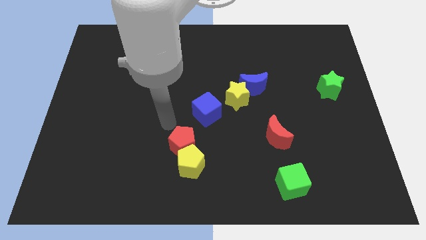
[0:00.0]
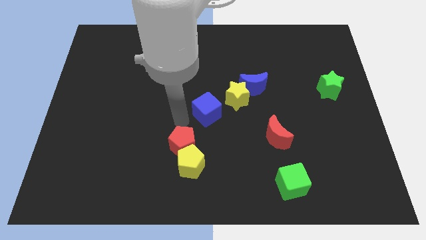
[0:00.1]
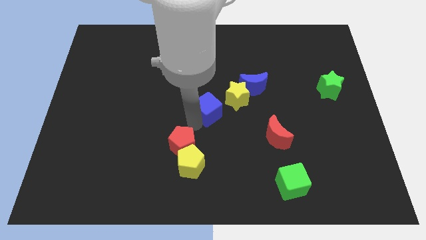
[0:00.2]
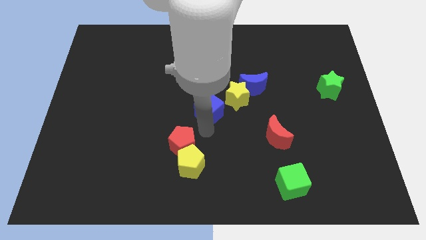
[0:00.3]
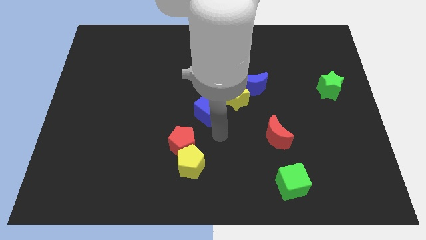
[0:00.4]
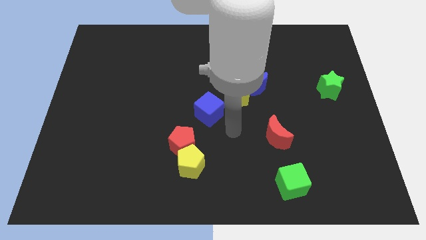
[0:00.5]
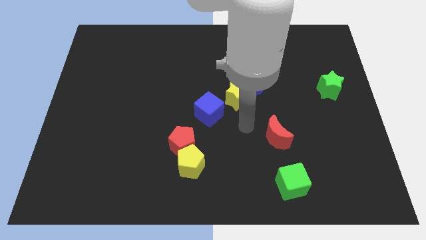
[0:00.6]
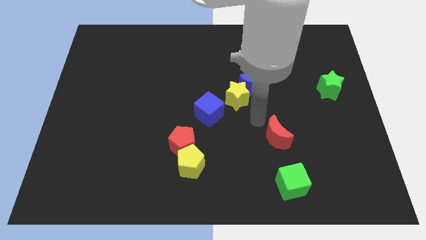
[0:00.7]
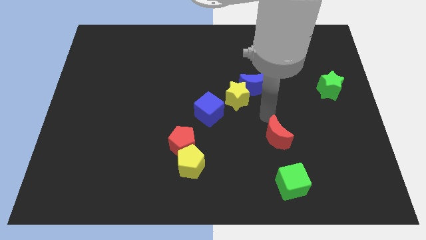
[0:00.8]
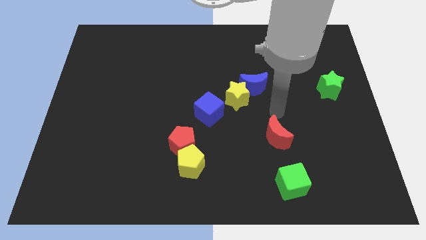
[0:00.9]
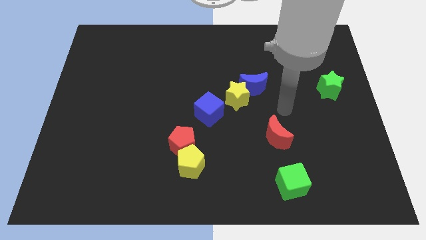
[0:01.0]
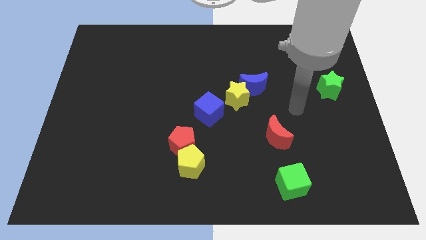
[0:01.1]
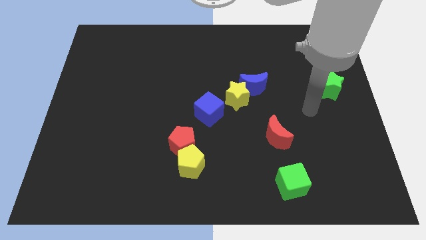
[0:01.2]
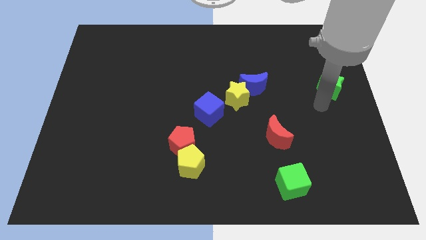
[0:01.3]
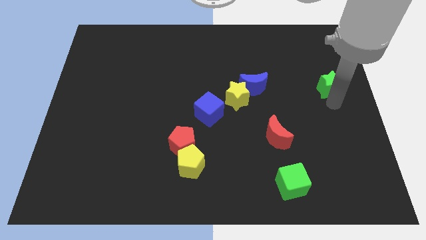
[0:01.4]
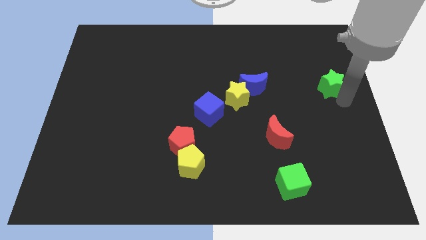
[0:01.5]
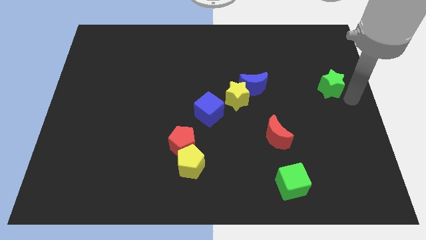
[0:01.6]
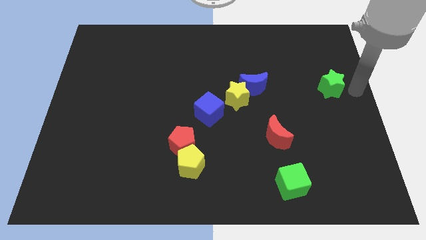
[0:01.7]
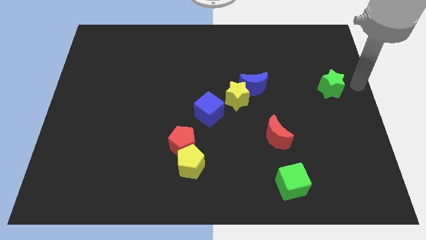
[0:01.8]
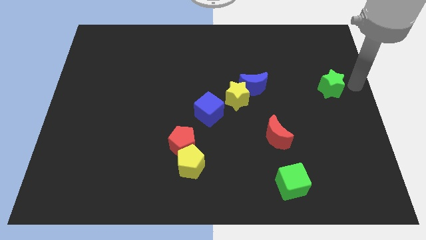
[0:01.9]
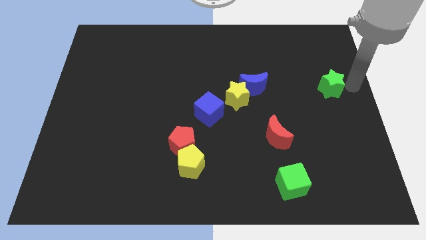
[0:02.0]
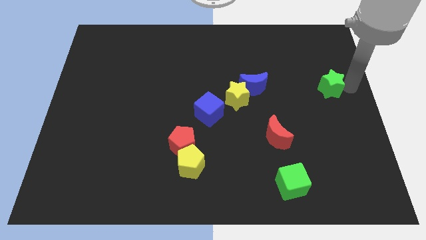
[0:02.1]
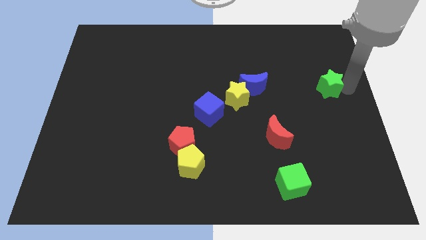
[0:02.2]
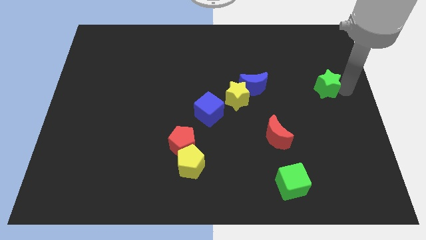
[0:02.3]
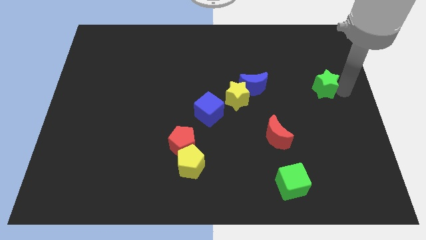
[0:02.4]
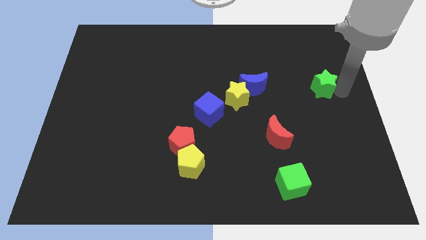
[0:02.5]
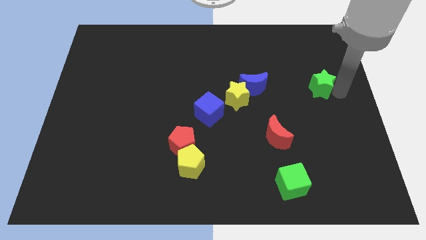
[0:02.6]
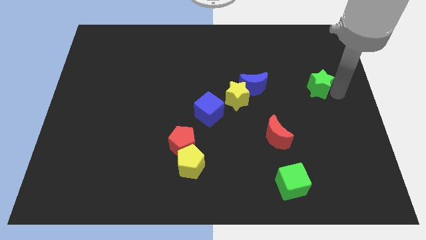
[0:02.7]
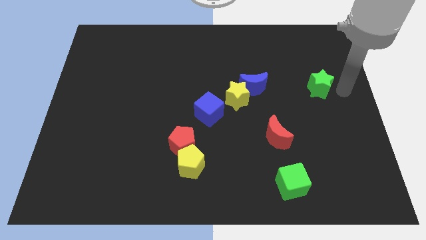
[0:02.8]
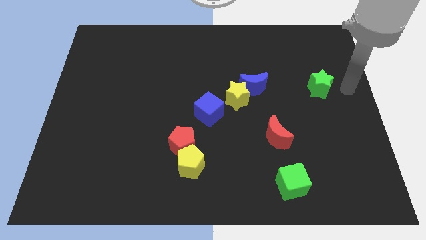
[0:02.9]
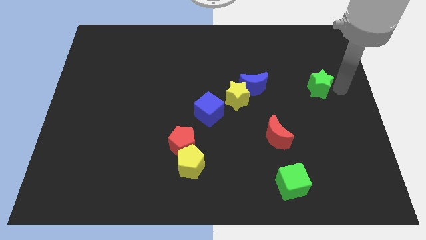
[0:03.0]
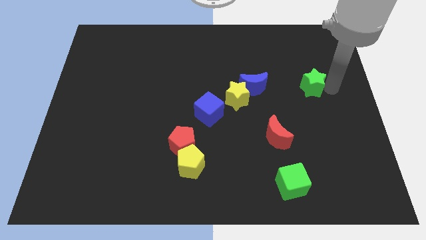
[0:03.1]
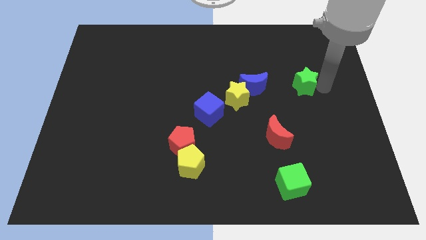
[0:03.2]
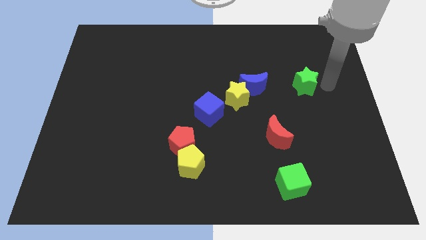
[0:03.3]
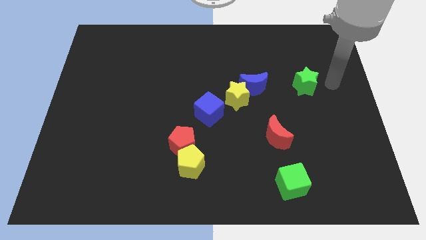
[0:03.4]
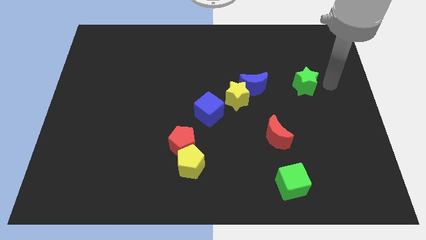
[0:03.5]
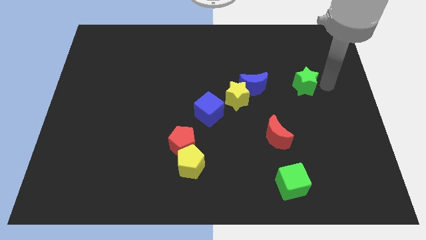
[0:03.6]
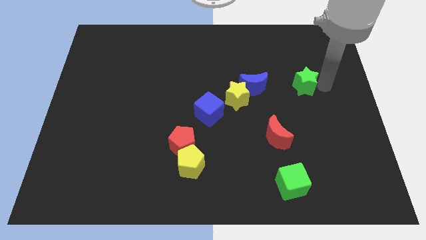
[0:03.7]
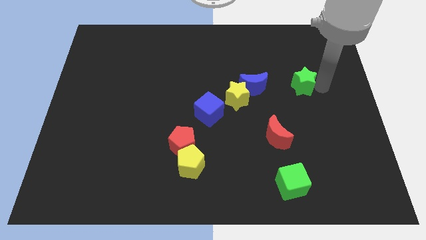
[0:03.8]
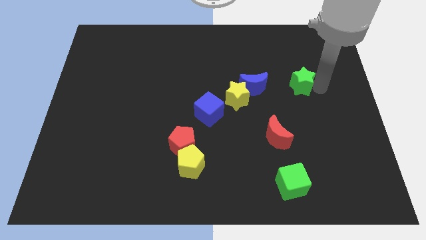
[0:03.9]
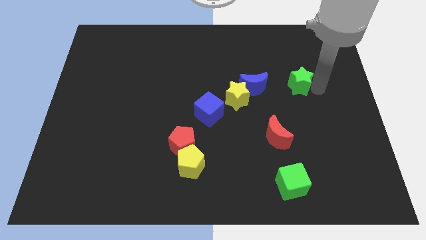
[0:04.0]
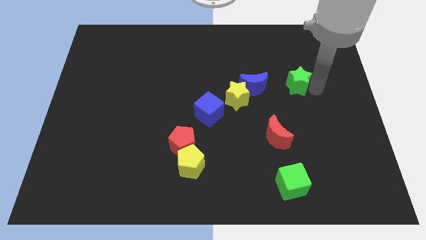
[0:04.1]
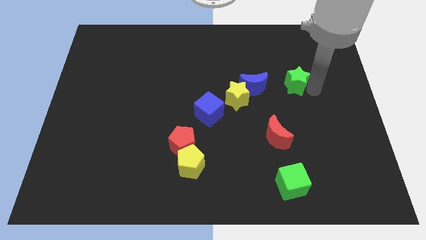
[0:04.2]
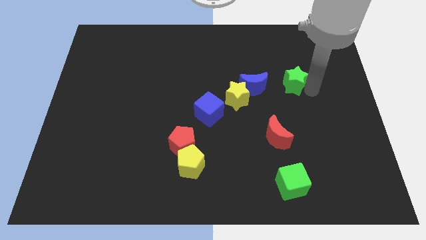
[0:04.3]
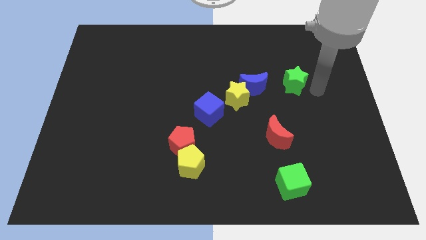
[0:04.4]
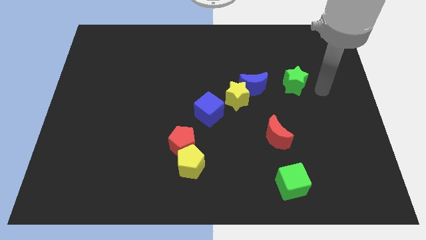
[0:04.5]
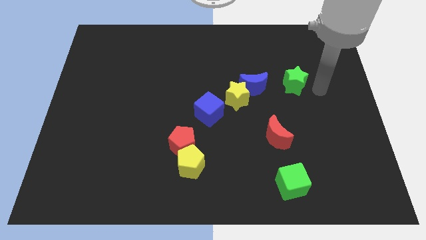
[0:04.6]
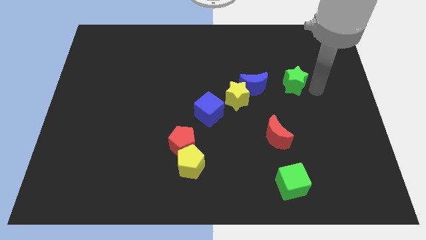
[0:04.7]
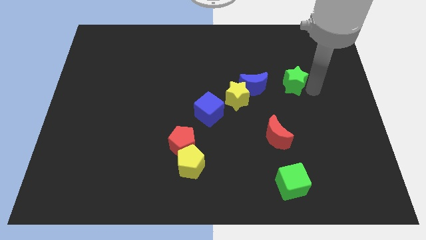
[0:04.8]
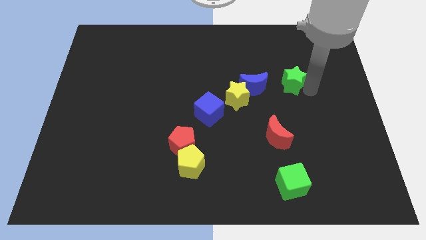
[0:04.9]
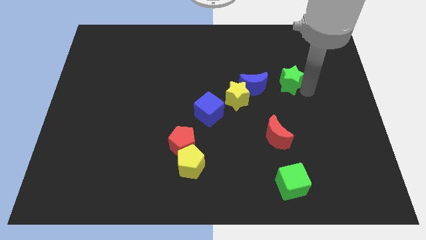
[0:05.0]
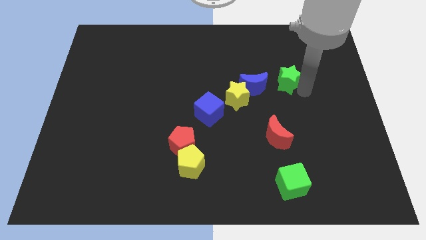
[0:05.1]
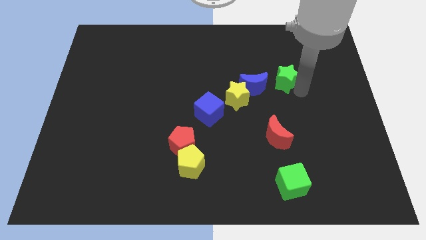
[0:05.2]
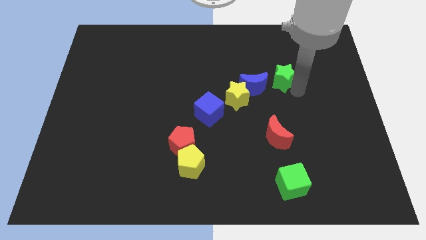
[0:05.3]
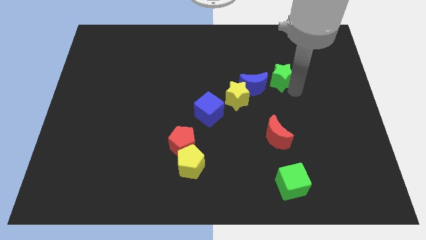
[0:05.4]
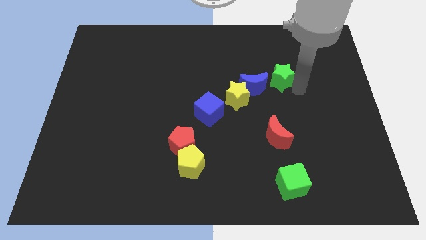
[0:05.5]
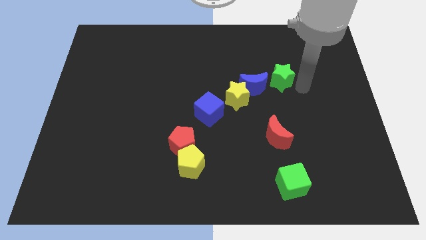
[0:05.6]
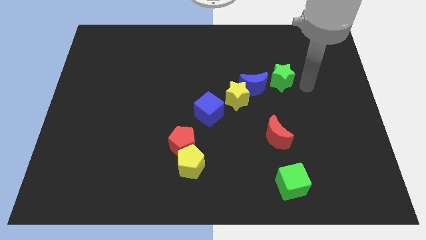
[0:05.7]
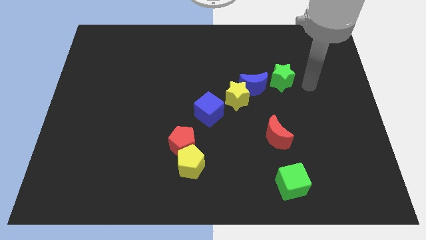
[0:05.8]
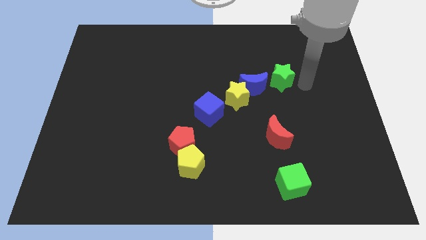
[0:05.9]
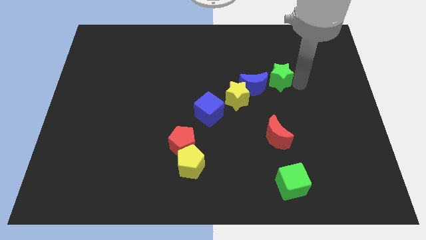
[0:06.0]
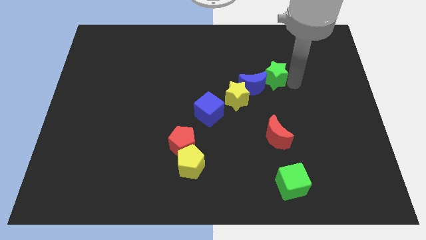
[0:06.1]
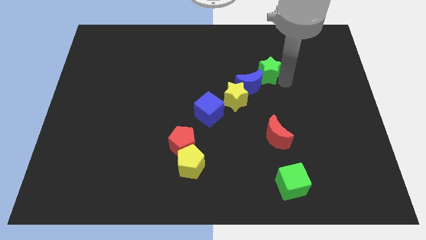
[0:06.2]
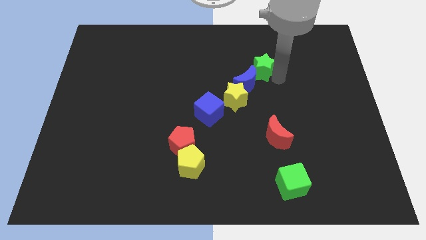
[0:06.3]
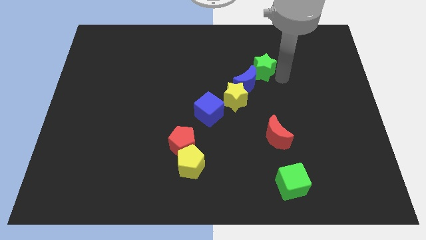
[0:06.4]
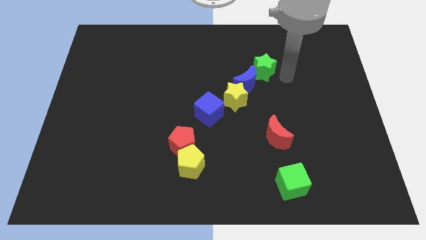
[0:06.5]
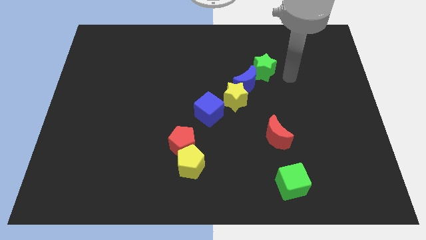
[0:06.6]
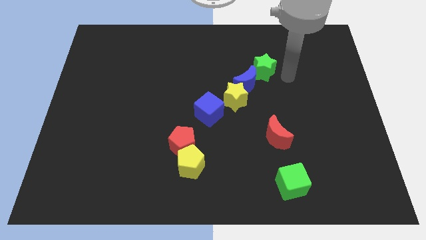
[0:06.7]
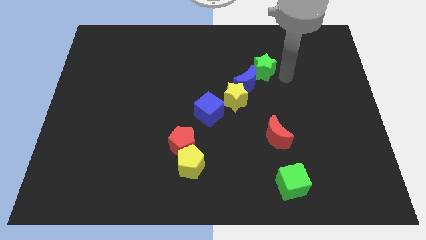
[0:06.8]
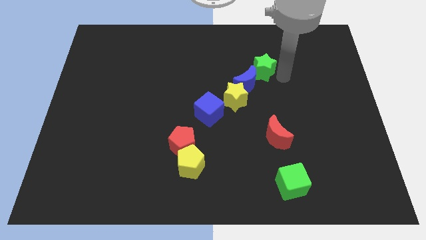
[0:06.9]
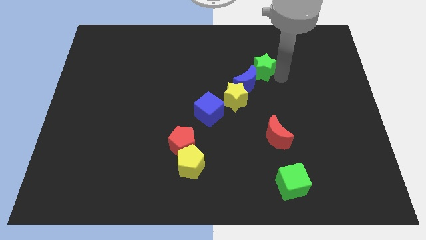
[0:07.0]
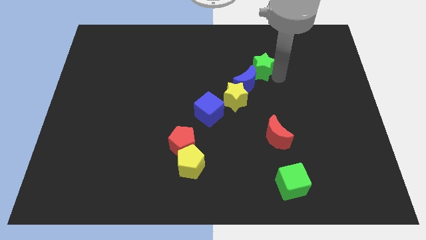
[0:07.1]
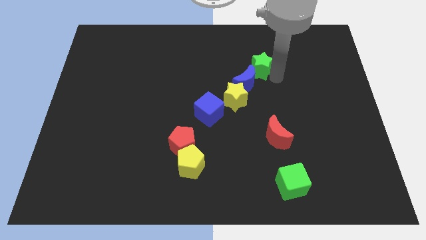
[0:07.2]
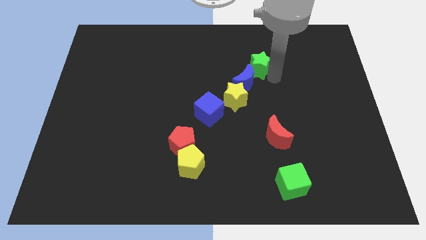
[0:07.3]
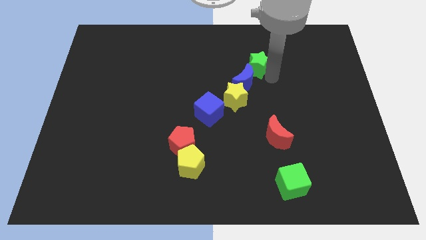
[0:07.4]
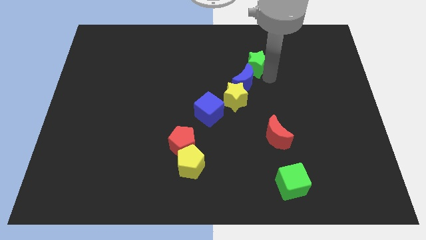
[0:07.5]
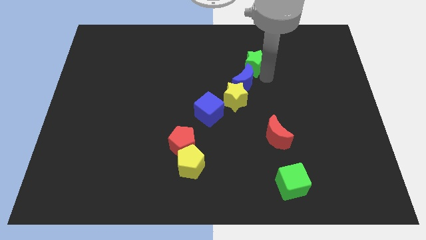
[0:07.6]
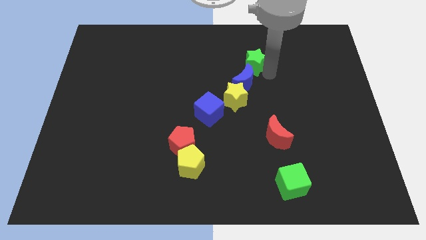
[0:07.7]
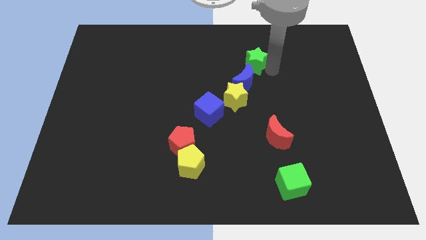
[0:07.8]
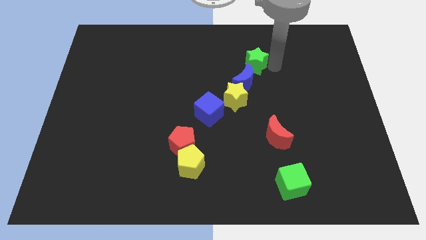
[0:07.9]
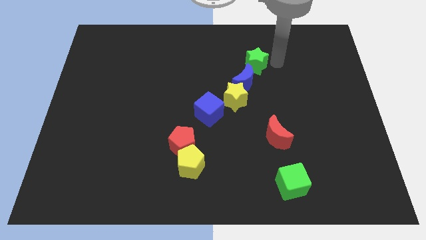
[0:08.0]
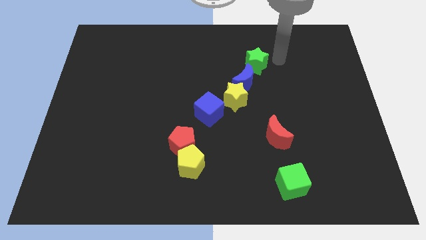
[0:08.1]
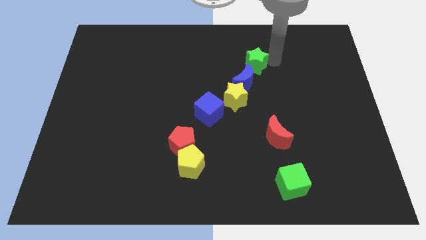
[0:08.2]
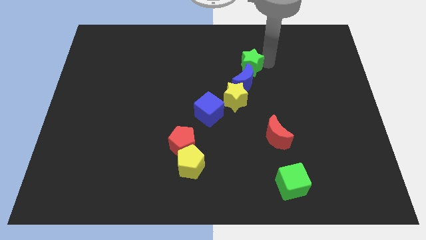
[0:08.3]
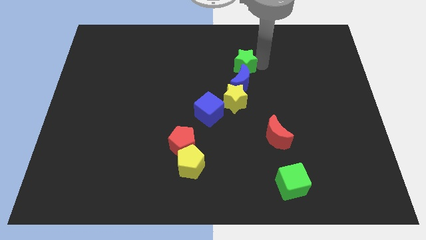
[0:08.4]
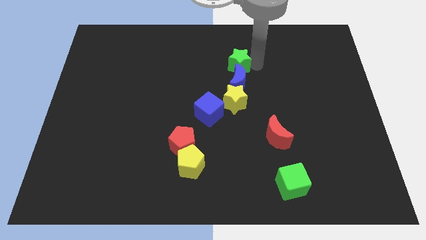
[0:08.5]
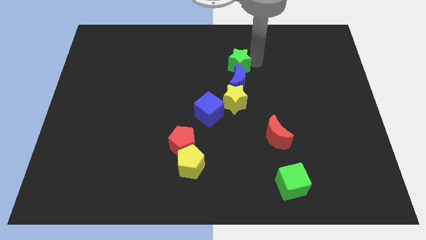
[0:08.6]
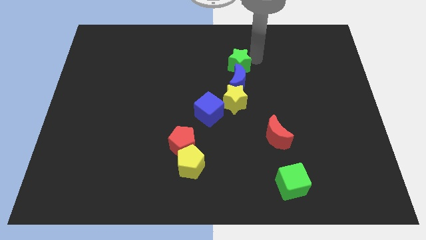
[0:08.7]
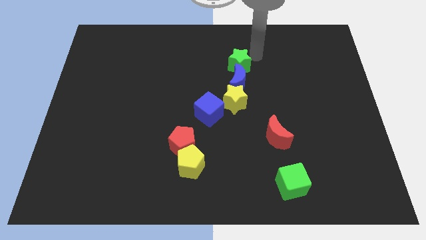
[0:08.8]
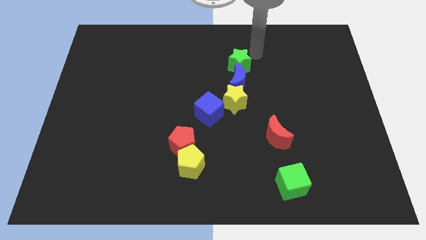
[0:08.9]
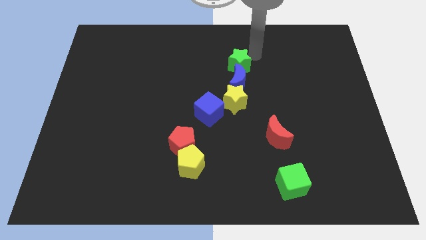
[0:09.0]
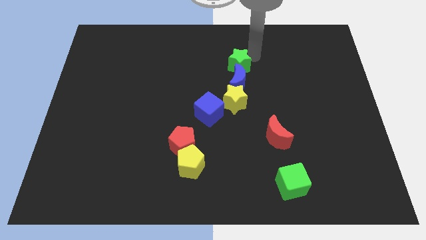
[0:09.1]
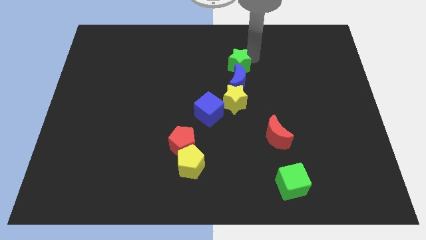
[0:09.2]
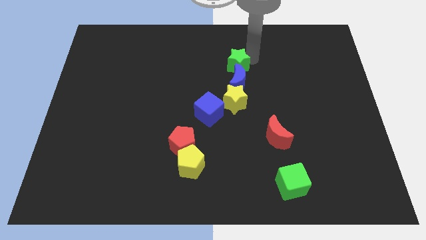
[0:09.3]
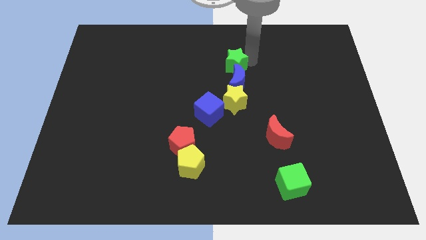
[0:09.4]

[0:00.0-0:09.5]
move the green star to the center of the board
